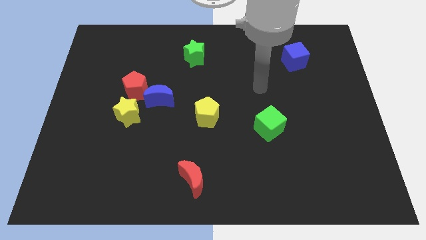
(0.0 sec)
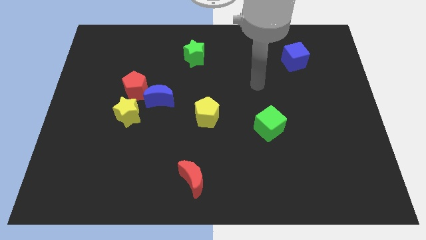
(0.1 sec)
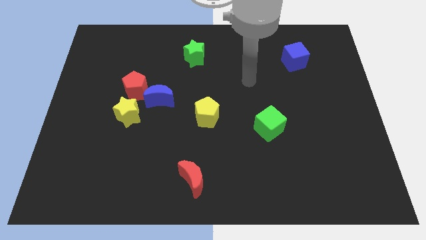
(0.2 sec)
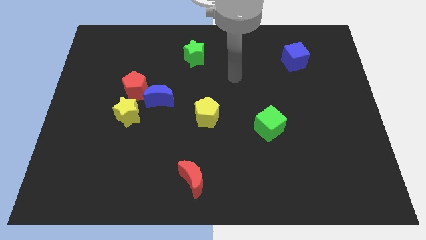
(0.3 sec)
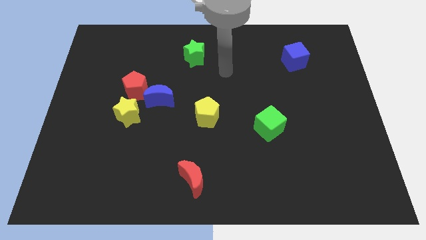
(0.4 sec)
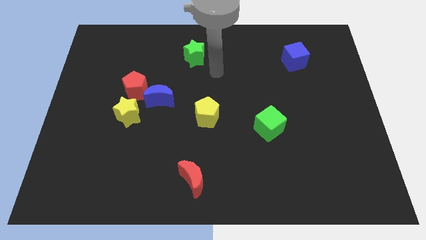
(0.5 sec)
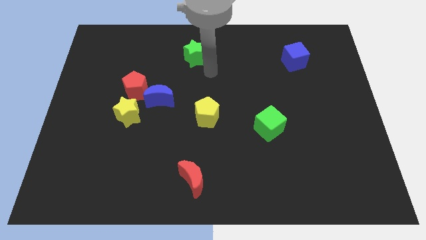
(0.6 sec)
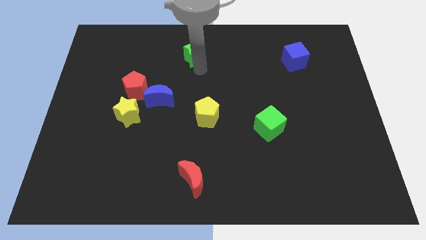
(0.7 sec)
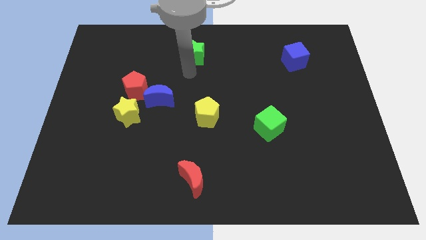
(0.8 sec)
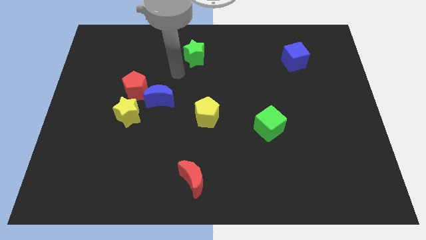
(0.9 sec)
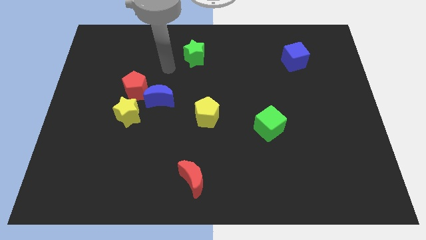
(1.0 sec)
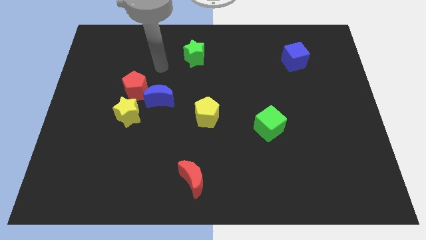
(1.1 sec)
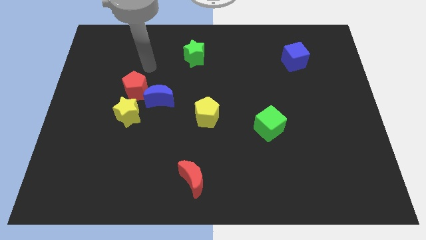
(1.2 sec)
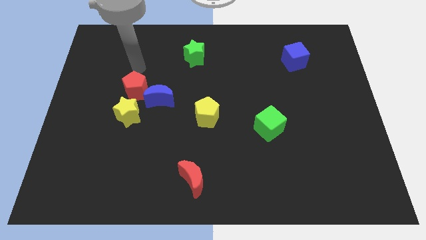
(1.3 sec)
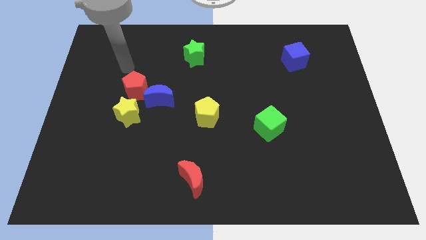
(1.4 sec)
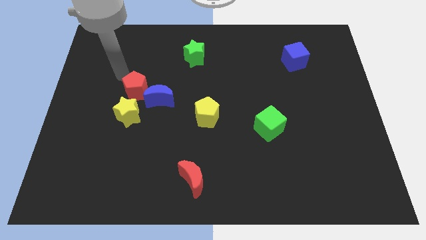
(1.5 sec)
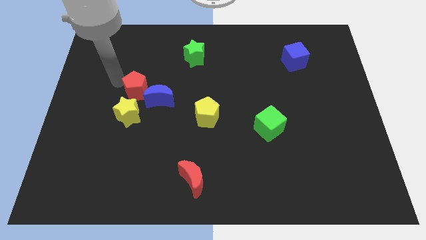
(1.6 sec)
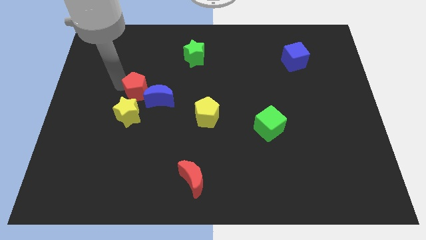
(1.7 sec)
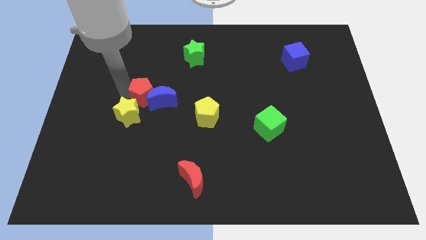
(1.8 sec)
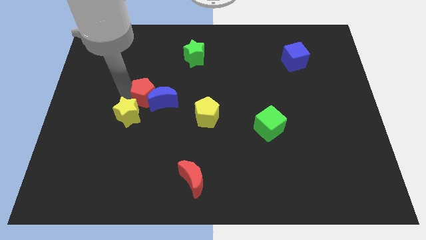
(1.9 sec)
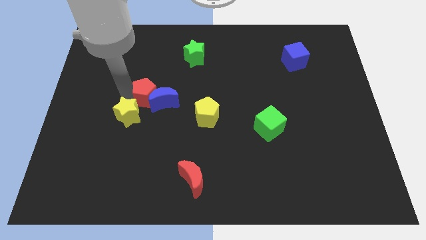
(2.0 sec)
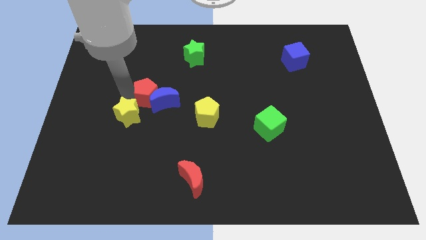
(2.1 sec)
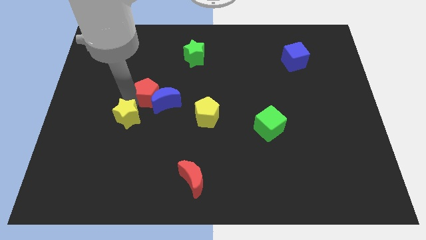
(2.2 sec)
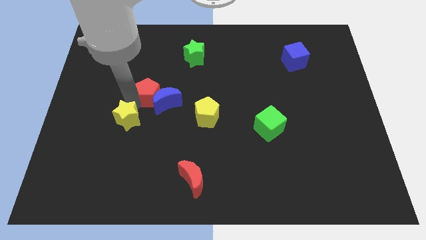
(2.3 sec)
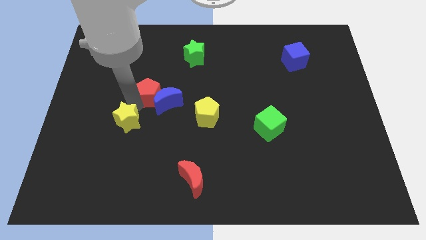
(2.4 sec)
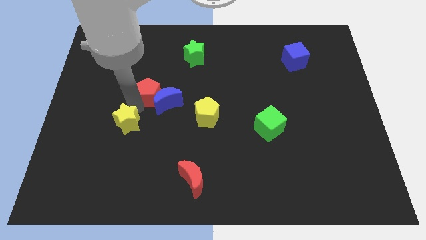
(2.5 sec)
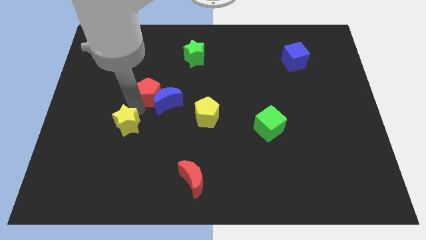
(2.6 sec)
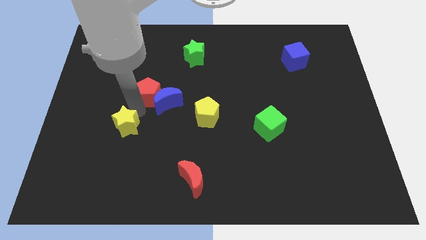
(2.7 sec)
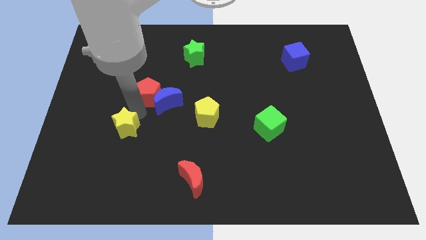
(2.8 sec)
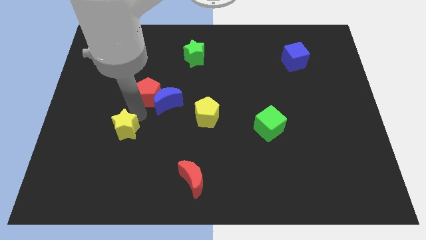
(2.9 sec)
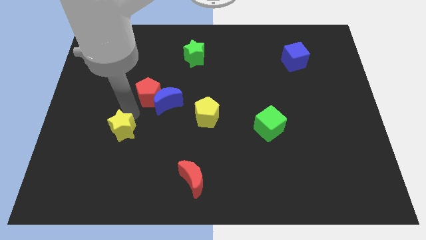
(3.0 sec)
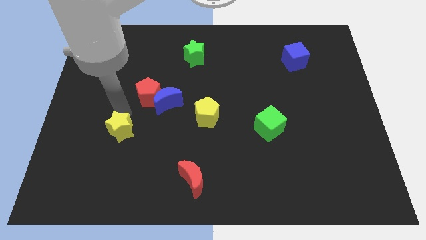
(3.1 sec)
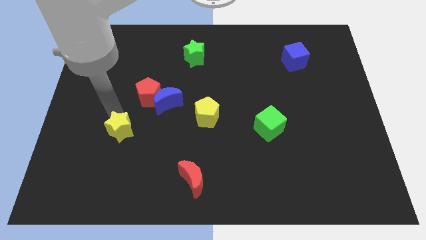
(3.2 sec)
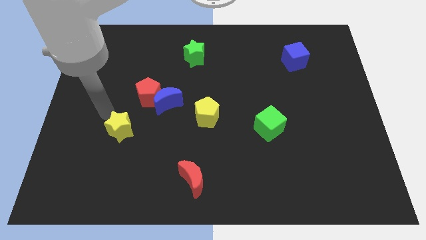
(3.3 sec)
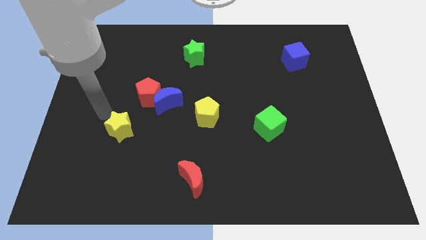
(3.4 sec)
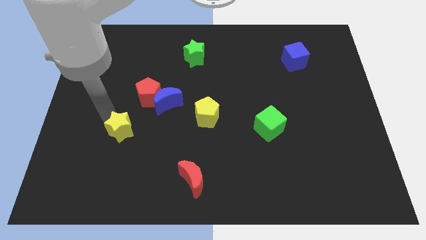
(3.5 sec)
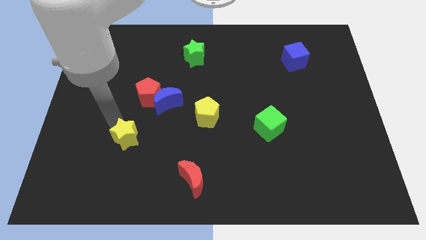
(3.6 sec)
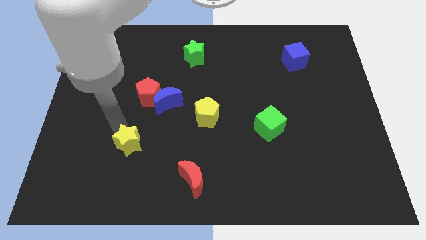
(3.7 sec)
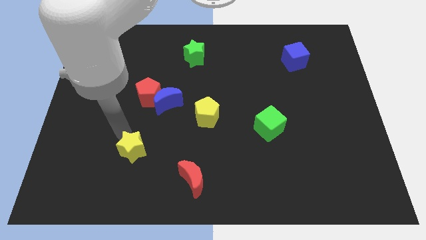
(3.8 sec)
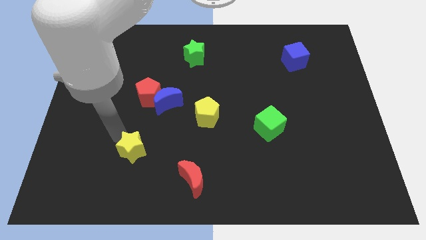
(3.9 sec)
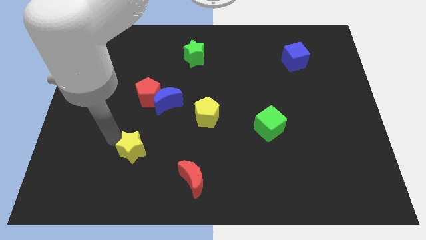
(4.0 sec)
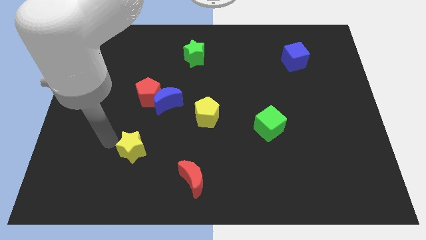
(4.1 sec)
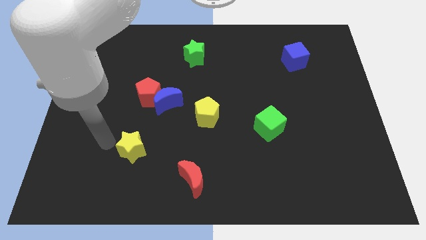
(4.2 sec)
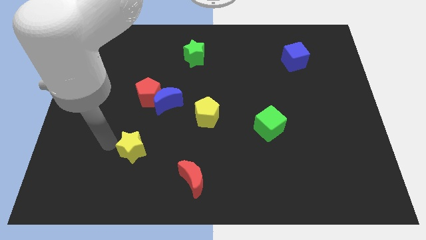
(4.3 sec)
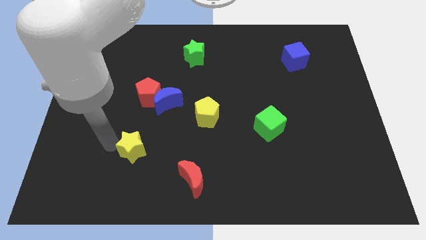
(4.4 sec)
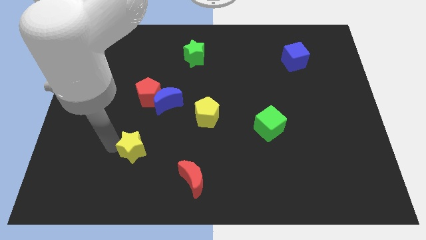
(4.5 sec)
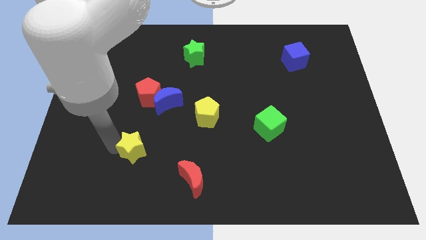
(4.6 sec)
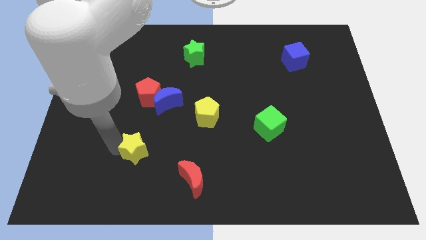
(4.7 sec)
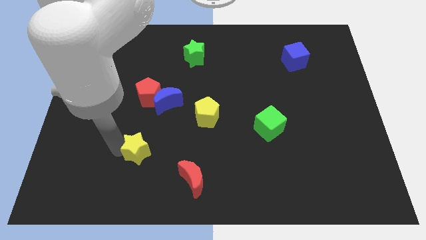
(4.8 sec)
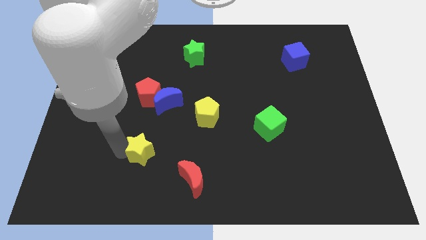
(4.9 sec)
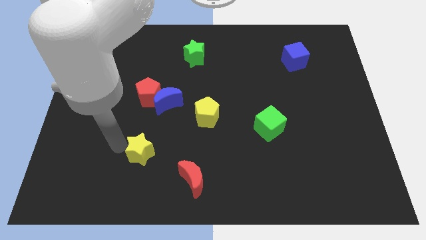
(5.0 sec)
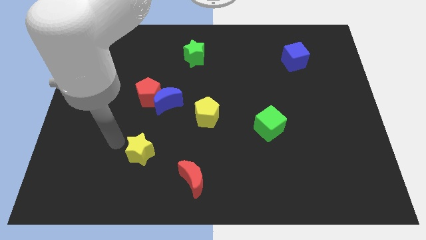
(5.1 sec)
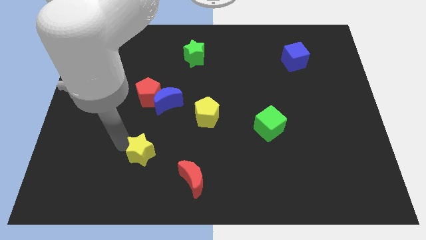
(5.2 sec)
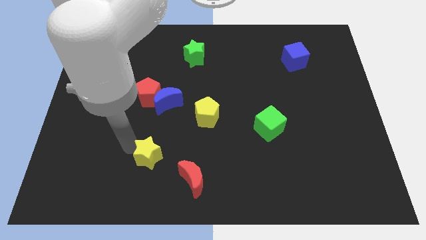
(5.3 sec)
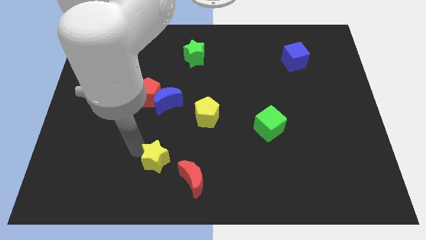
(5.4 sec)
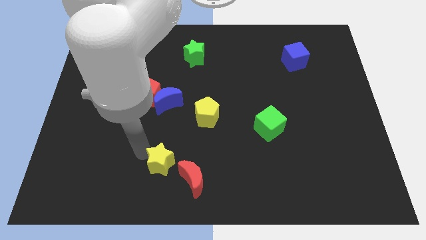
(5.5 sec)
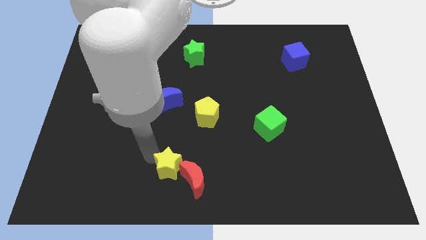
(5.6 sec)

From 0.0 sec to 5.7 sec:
move the yellow star towards the red moon

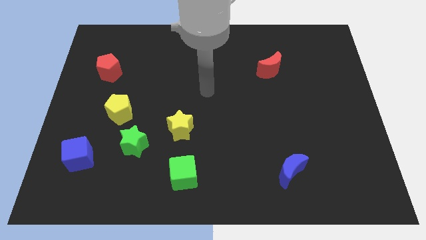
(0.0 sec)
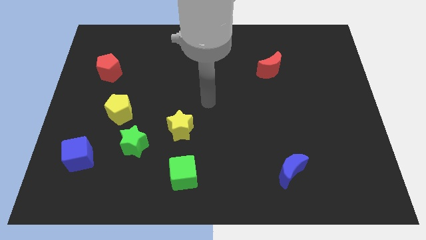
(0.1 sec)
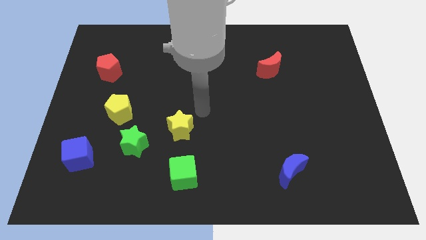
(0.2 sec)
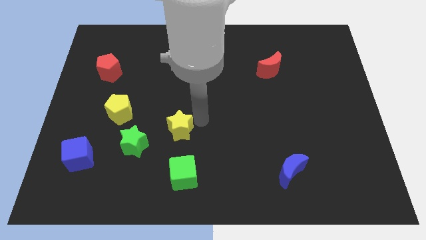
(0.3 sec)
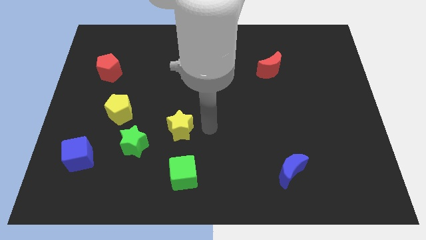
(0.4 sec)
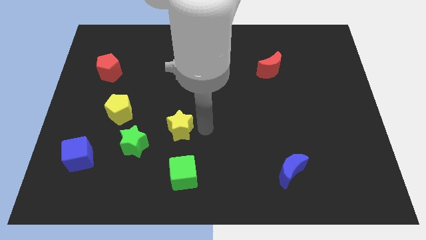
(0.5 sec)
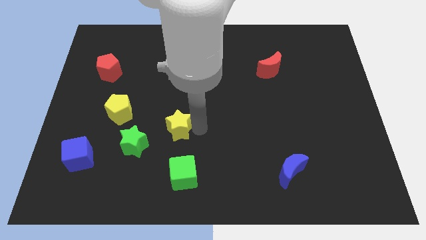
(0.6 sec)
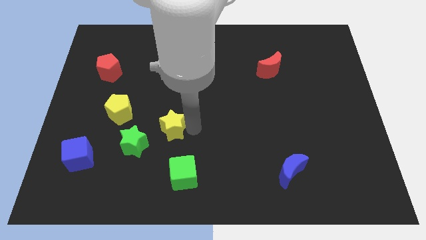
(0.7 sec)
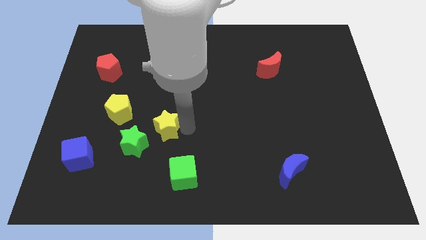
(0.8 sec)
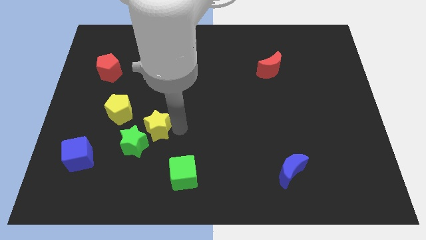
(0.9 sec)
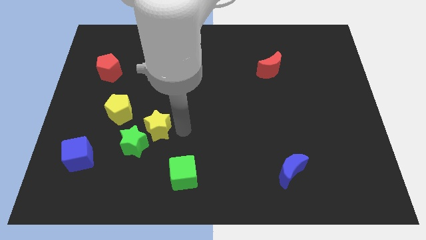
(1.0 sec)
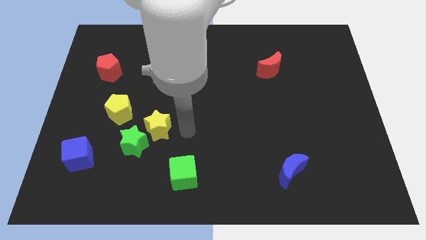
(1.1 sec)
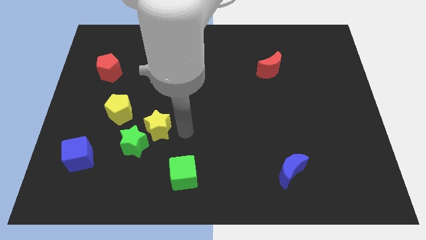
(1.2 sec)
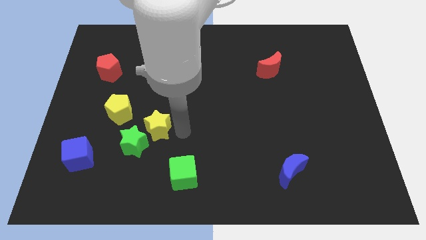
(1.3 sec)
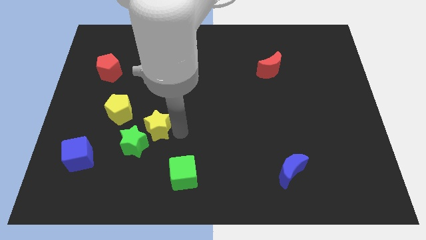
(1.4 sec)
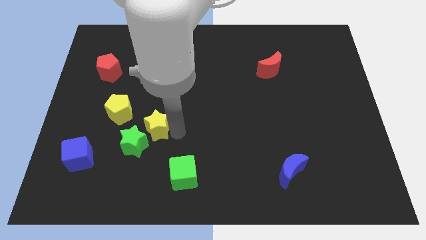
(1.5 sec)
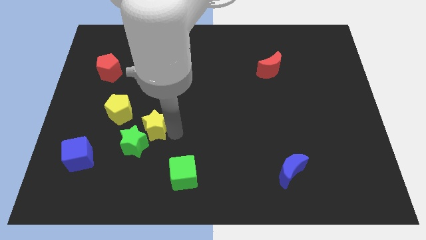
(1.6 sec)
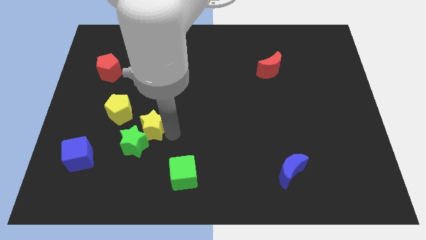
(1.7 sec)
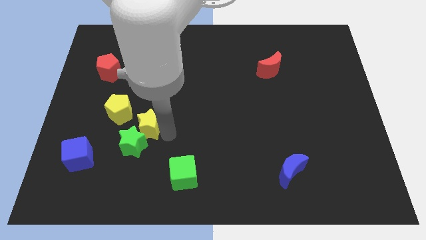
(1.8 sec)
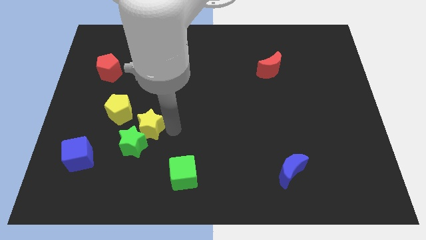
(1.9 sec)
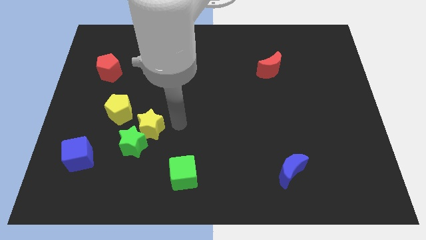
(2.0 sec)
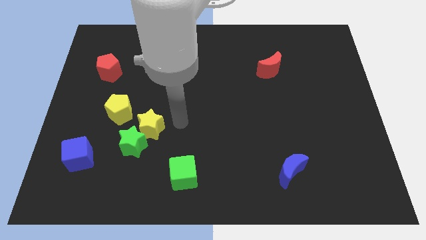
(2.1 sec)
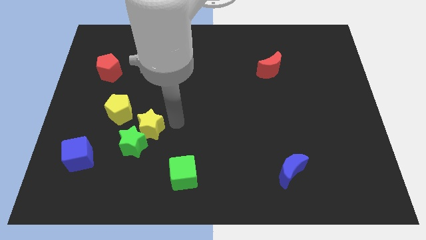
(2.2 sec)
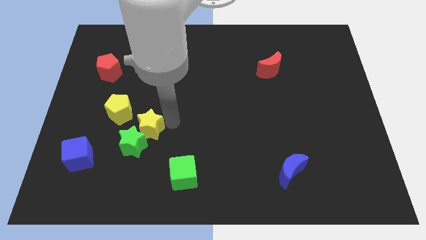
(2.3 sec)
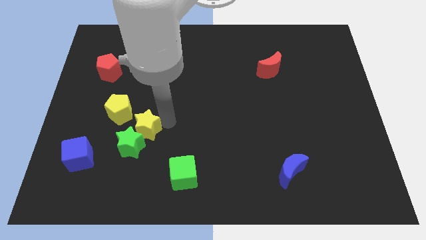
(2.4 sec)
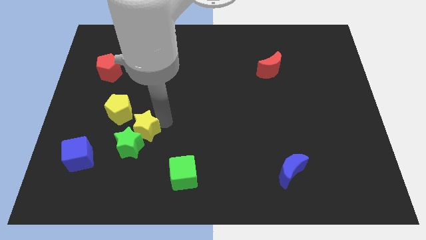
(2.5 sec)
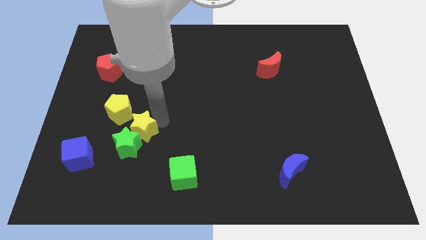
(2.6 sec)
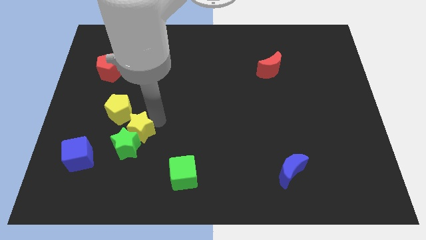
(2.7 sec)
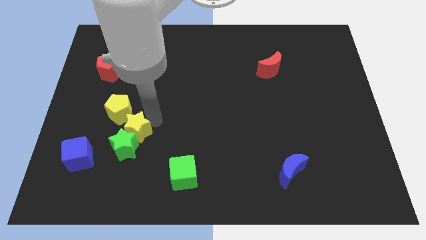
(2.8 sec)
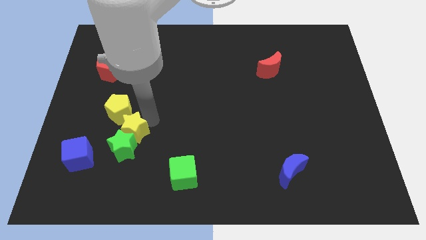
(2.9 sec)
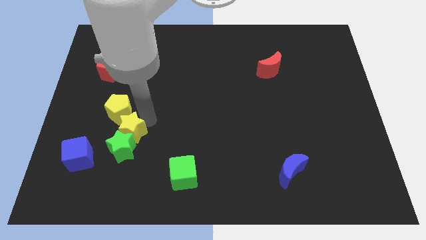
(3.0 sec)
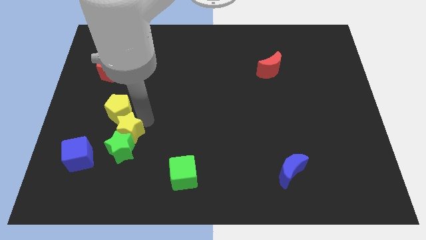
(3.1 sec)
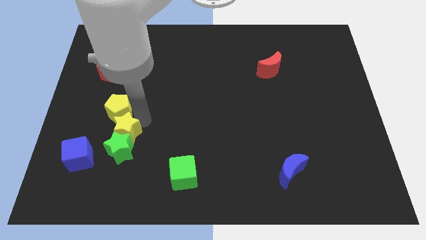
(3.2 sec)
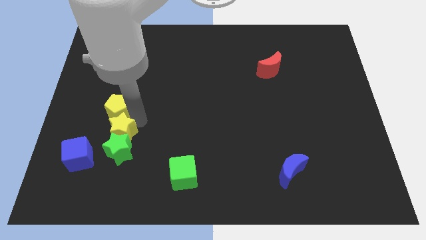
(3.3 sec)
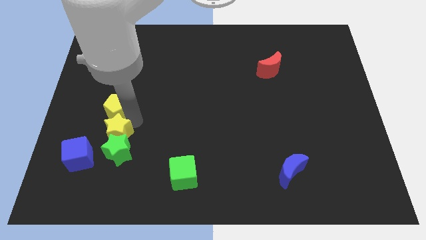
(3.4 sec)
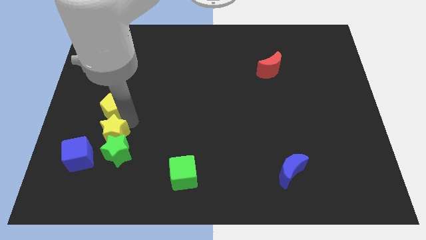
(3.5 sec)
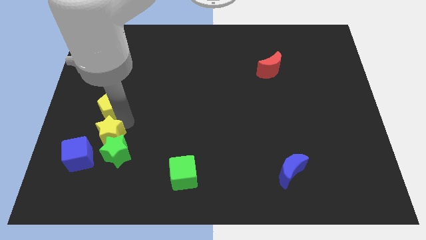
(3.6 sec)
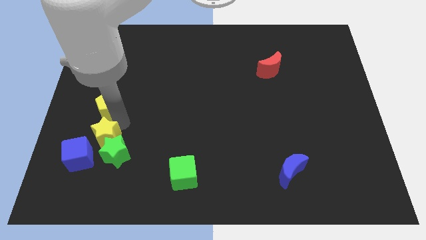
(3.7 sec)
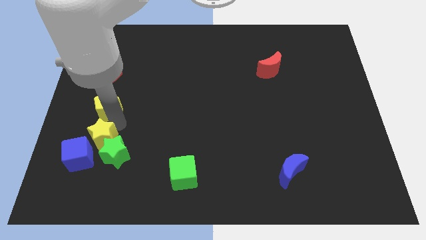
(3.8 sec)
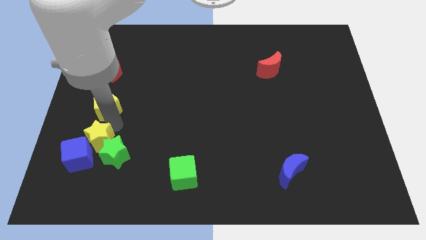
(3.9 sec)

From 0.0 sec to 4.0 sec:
slide the yellow star next to the blue cube
